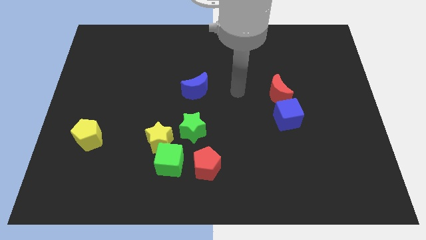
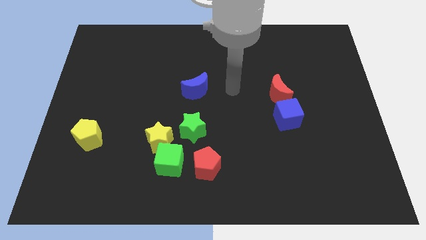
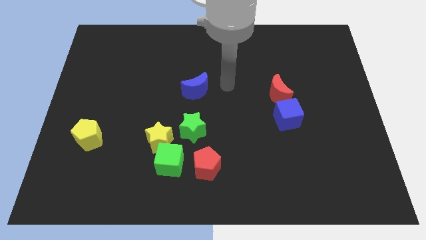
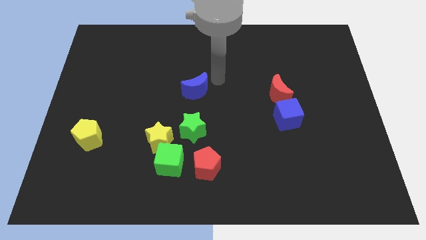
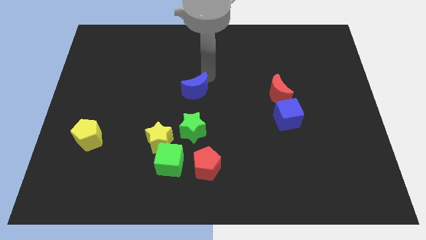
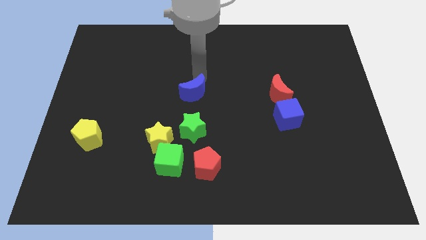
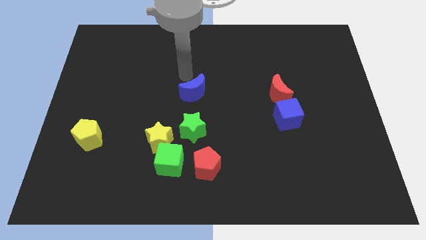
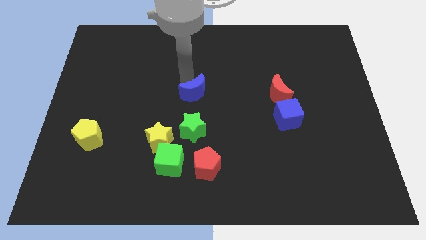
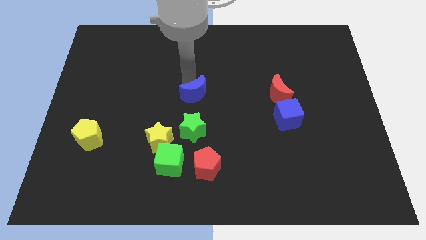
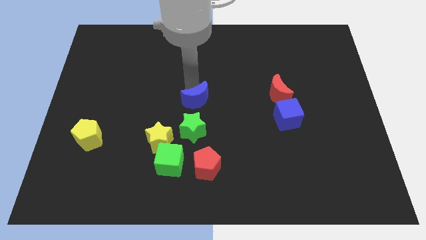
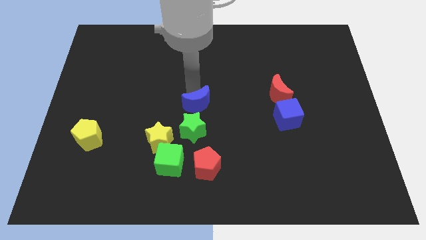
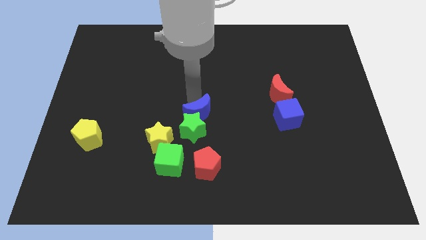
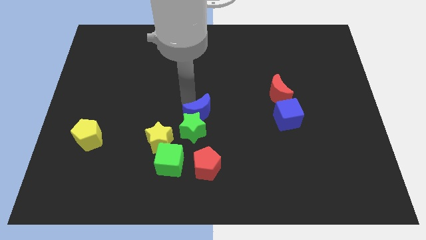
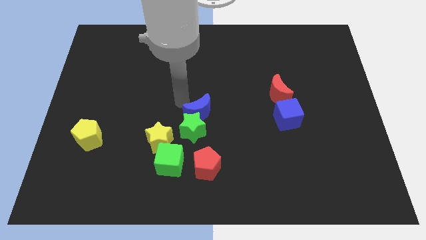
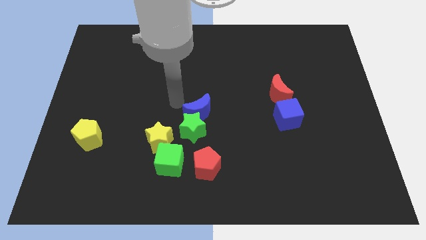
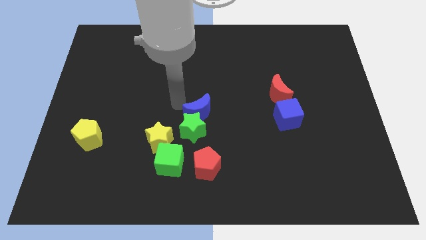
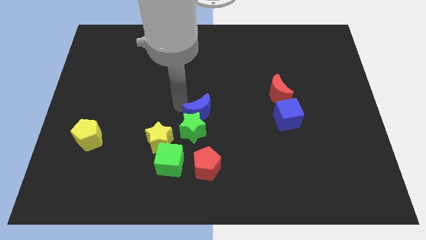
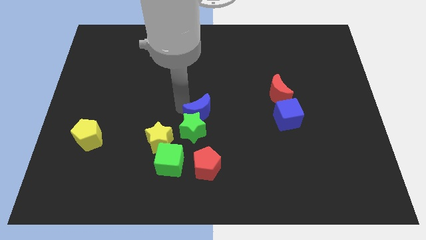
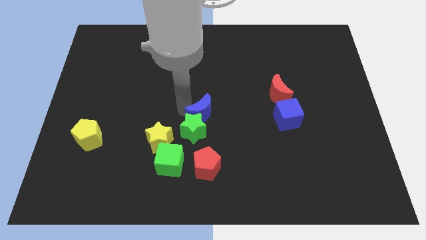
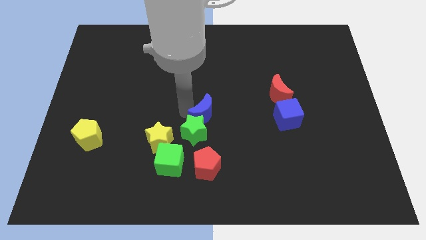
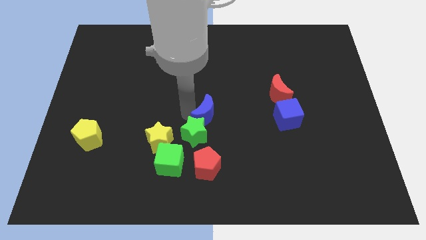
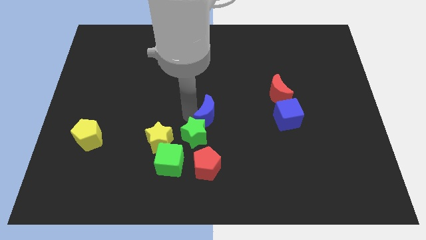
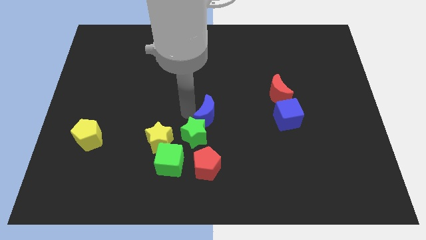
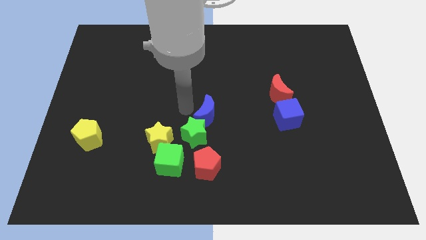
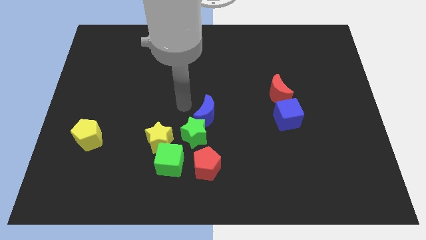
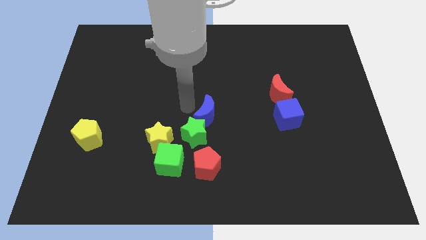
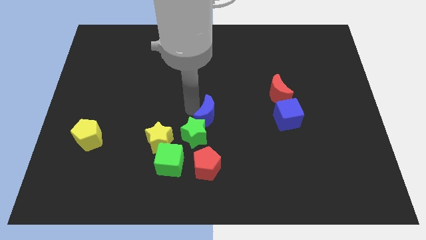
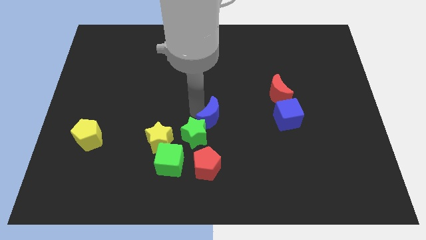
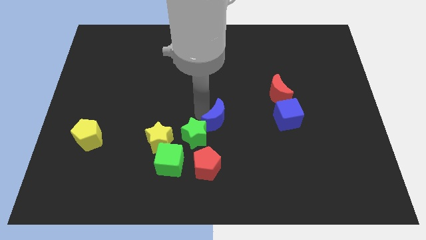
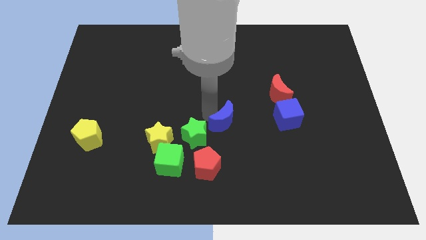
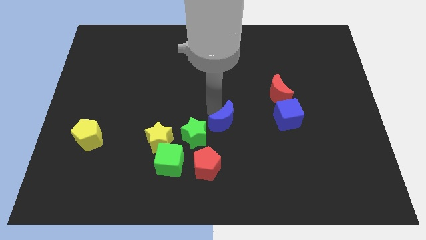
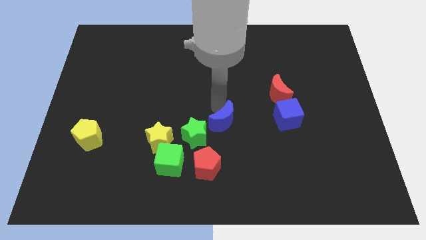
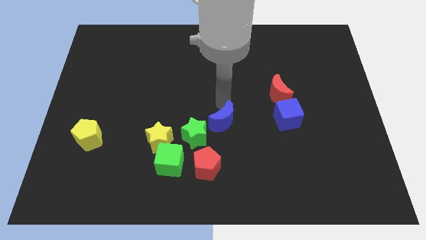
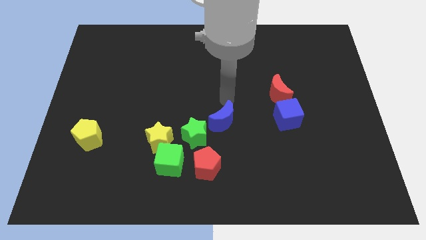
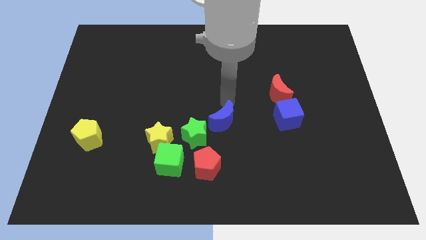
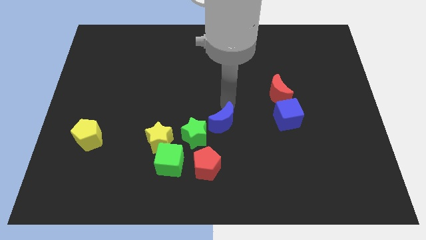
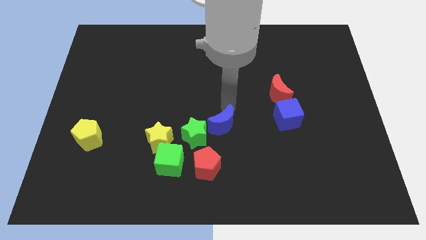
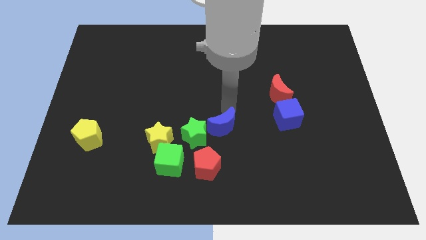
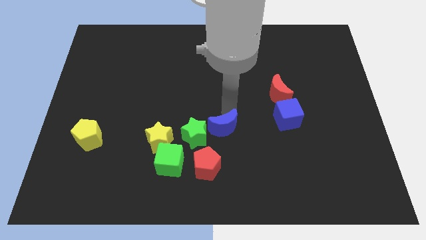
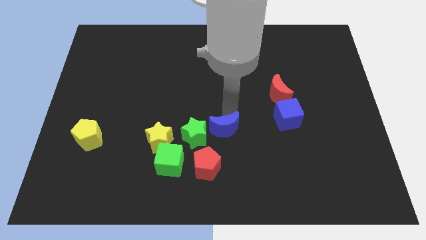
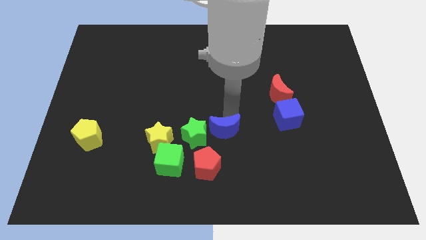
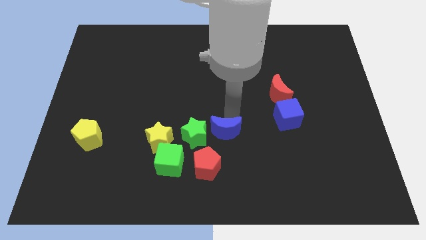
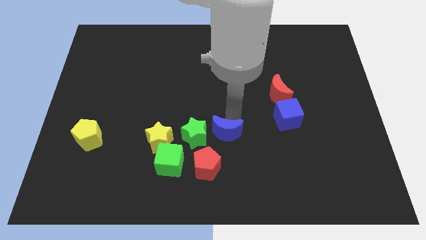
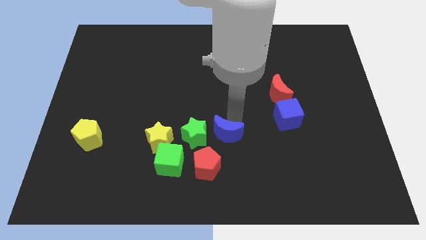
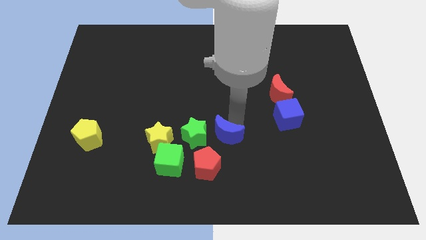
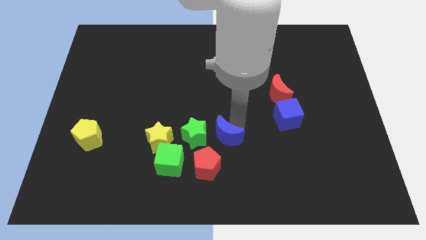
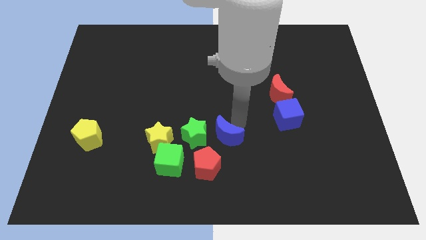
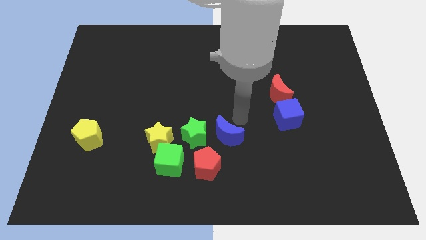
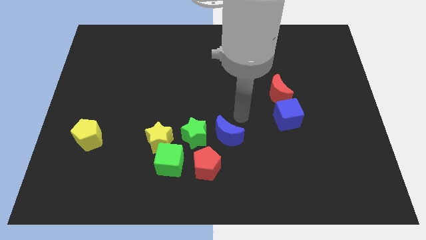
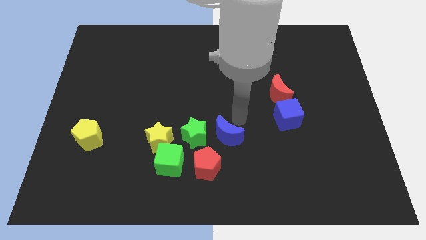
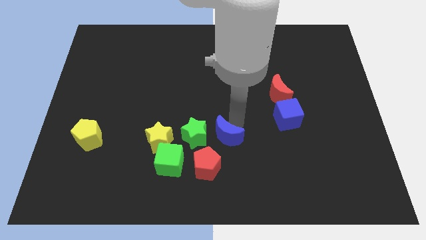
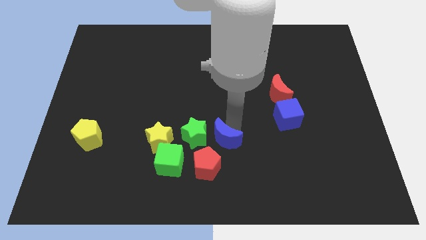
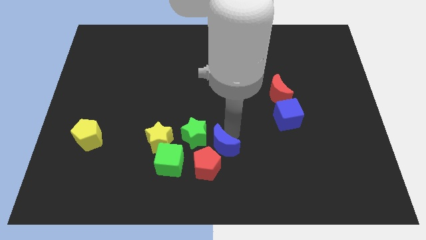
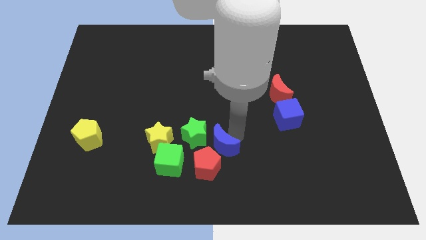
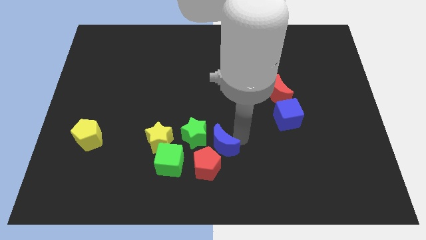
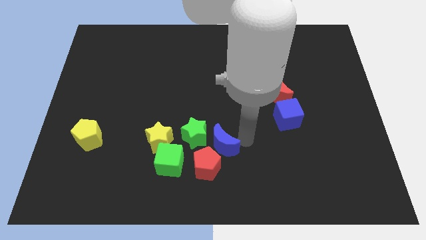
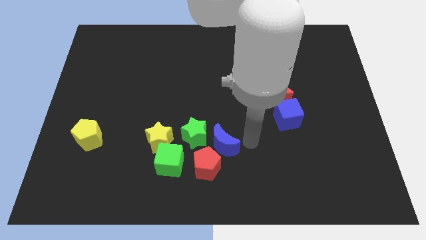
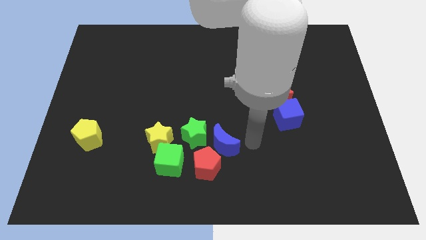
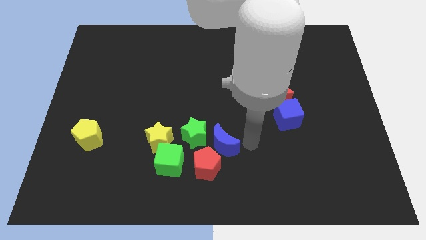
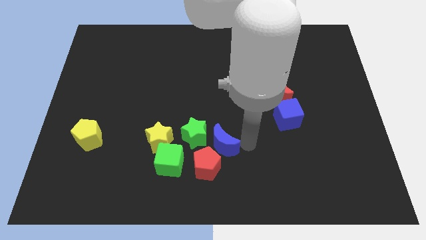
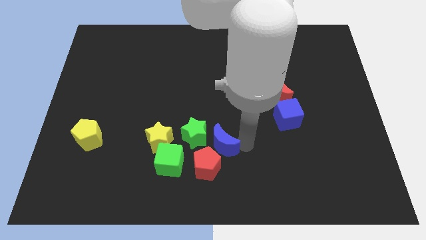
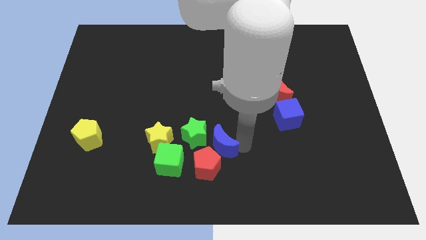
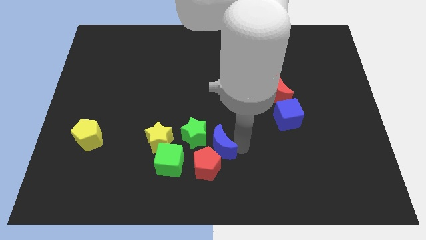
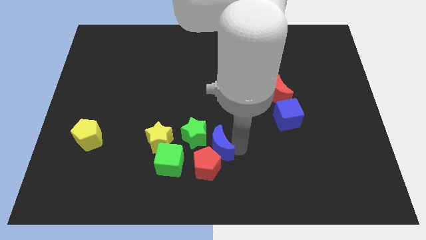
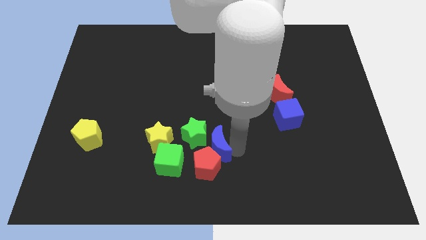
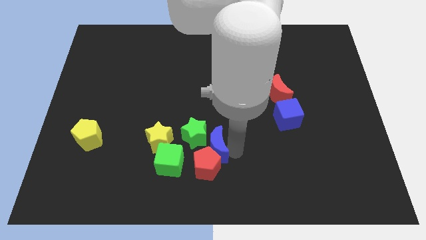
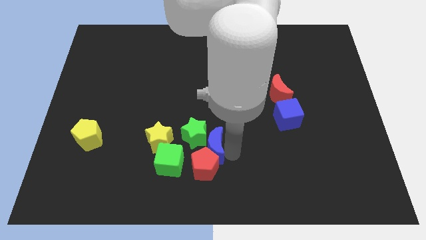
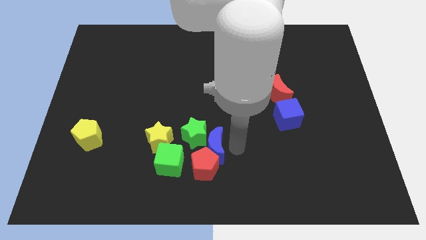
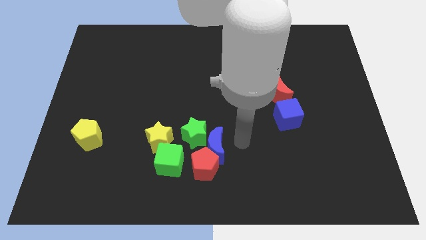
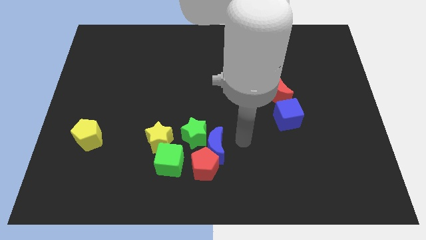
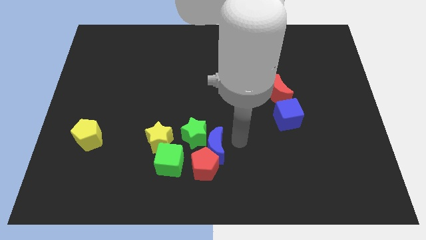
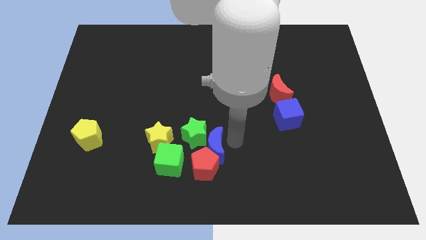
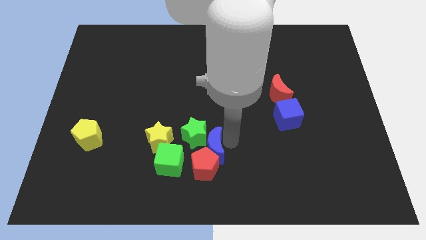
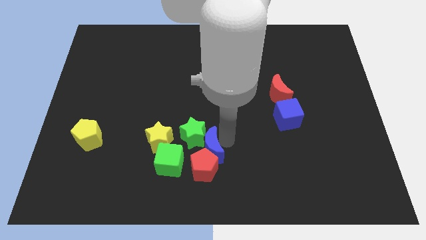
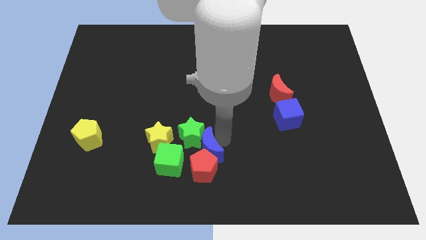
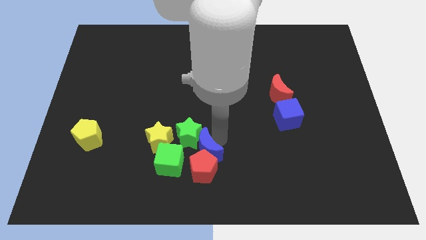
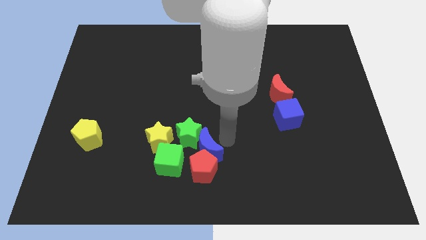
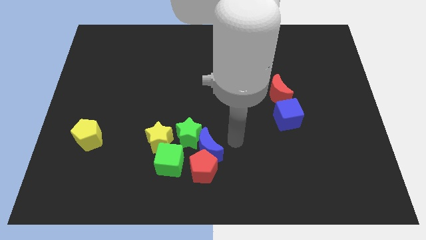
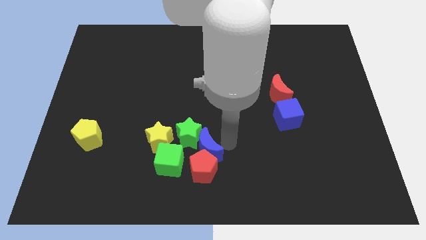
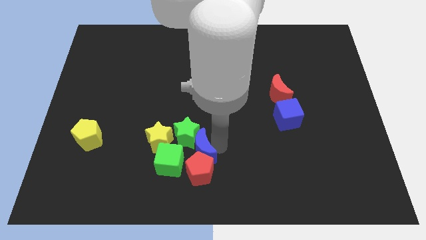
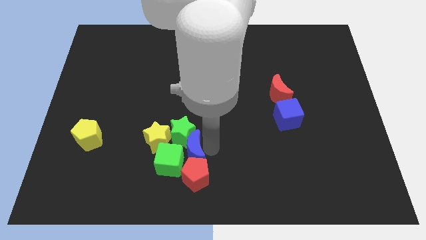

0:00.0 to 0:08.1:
slide the blue moon to the green cube
